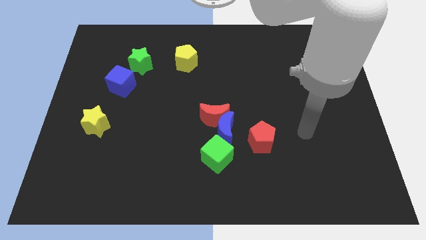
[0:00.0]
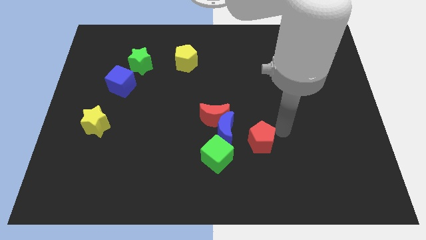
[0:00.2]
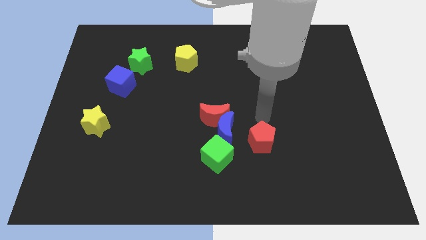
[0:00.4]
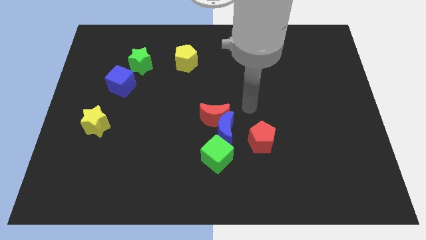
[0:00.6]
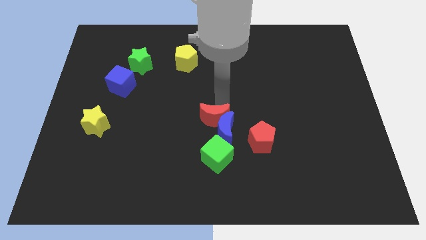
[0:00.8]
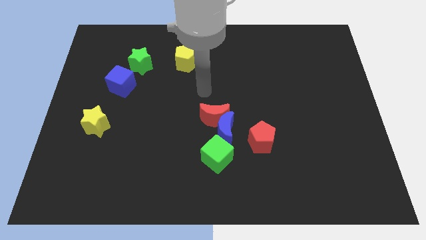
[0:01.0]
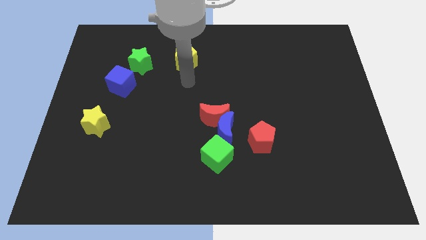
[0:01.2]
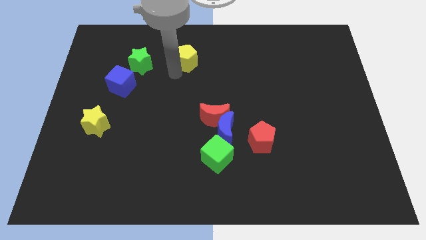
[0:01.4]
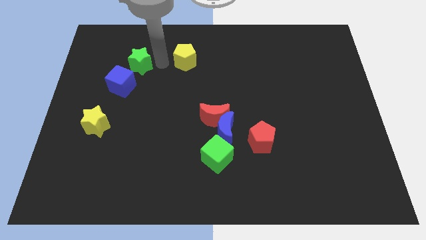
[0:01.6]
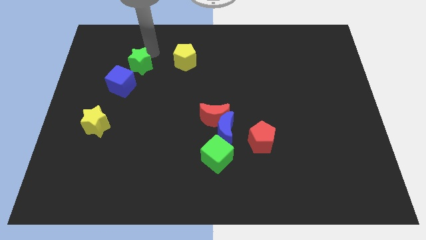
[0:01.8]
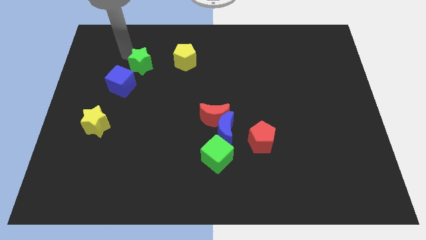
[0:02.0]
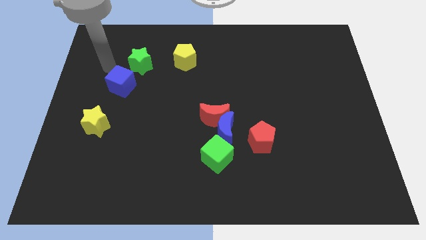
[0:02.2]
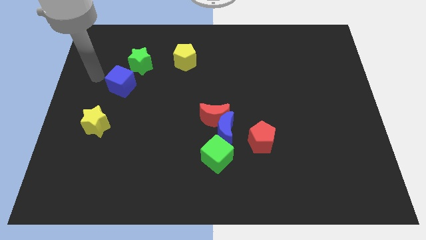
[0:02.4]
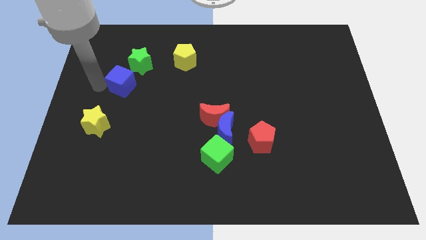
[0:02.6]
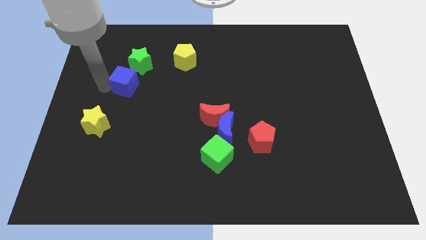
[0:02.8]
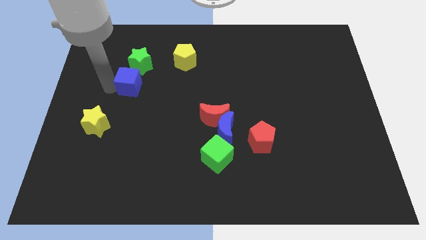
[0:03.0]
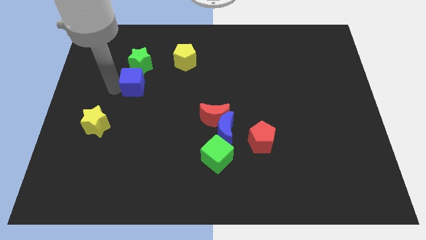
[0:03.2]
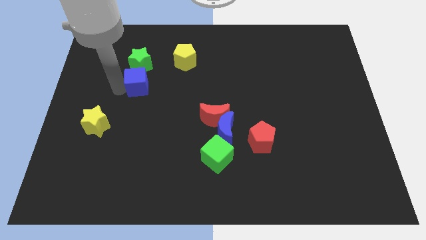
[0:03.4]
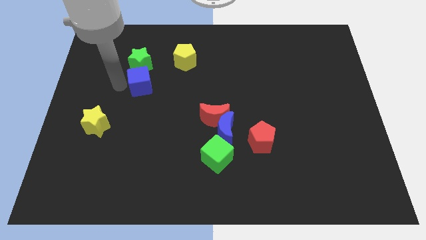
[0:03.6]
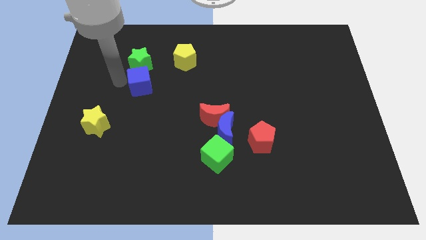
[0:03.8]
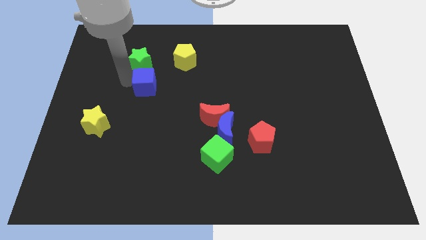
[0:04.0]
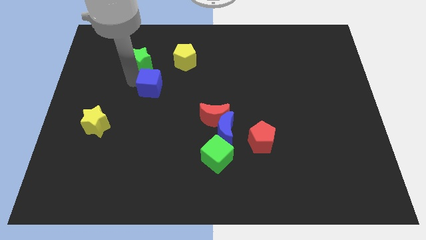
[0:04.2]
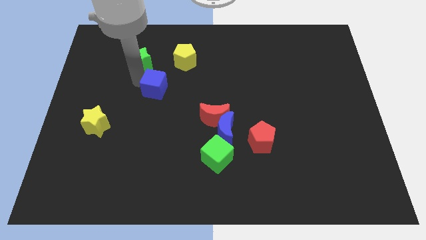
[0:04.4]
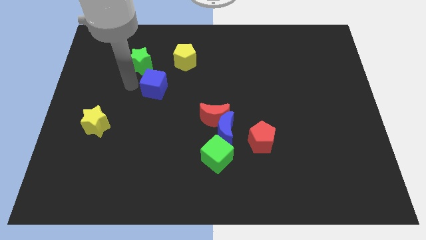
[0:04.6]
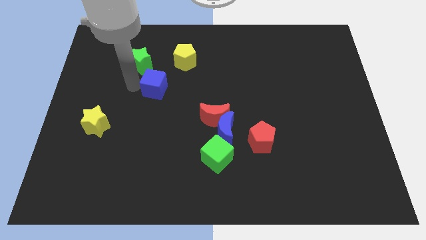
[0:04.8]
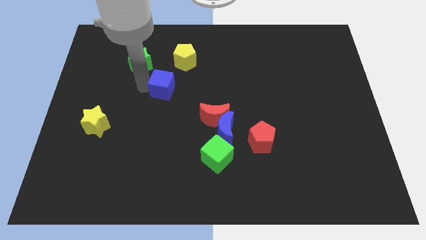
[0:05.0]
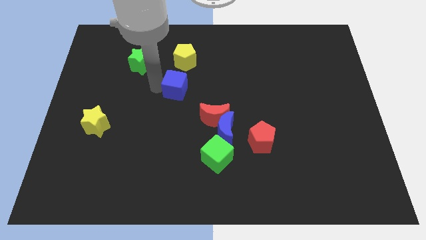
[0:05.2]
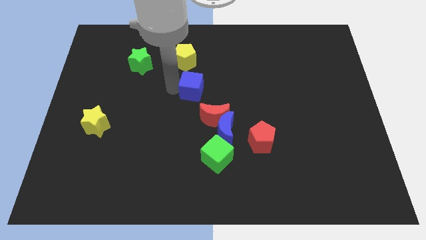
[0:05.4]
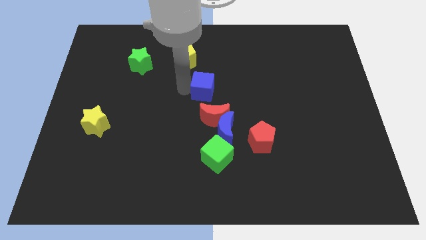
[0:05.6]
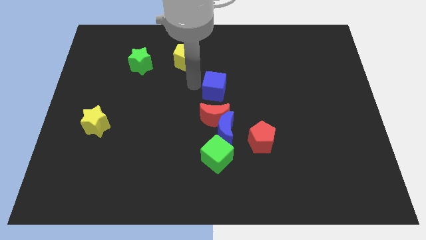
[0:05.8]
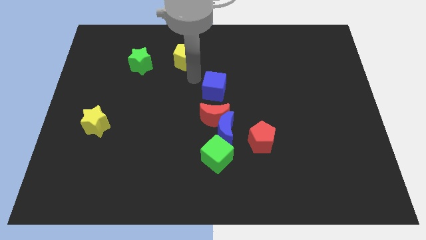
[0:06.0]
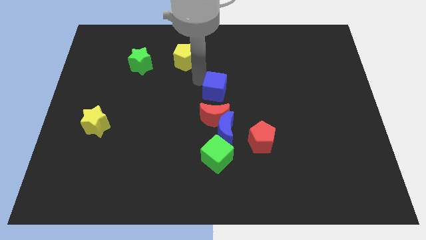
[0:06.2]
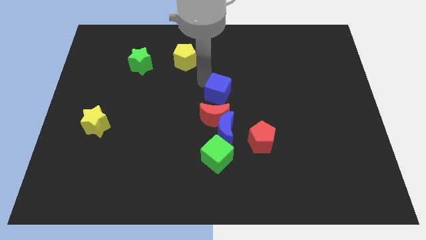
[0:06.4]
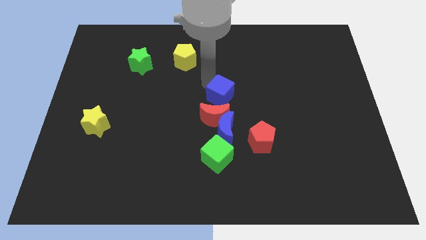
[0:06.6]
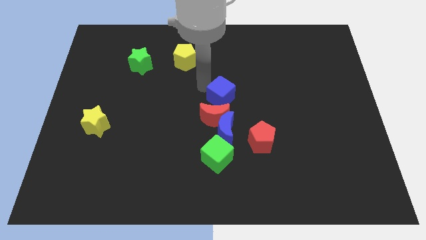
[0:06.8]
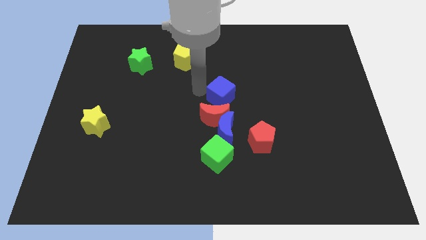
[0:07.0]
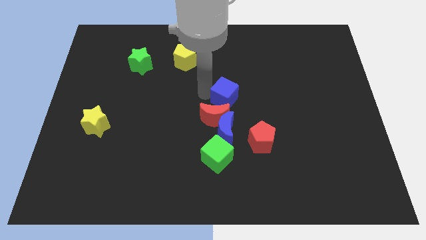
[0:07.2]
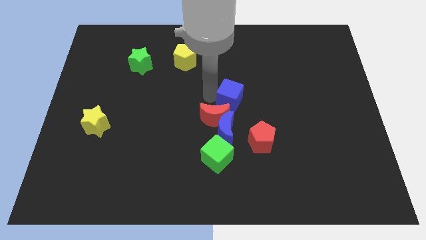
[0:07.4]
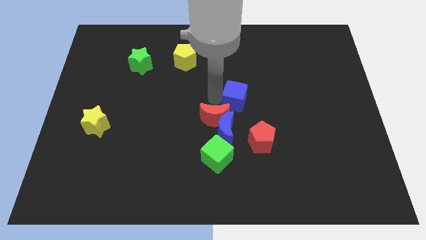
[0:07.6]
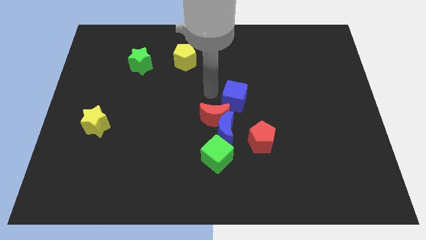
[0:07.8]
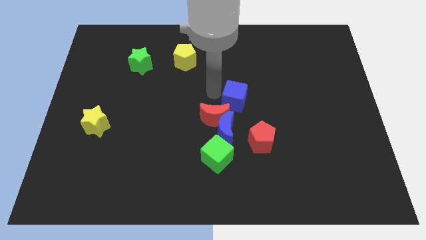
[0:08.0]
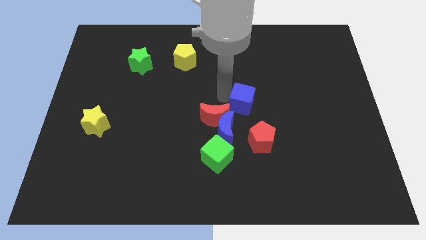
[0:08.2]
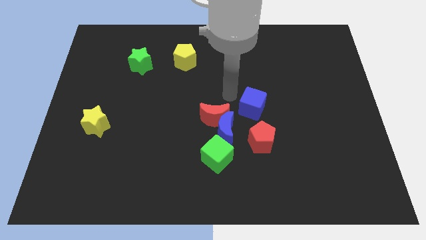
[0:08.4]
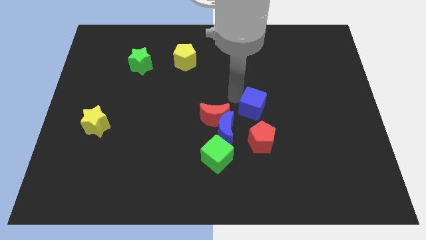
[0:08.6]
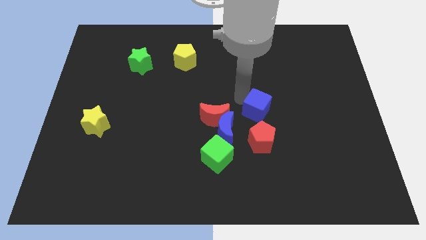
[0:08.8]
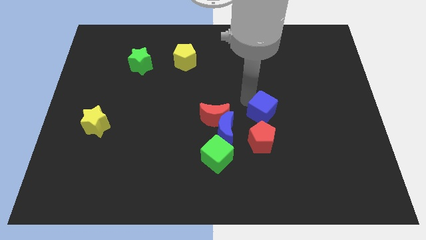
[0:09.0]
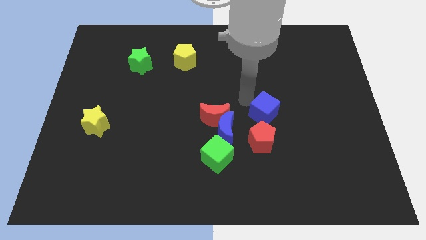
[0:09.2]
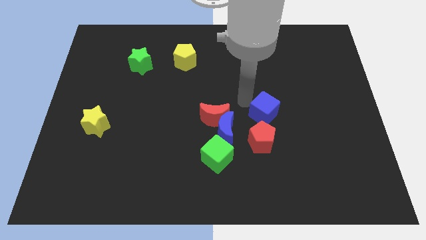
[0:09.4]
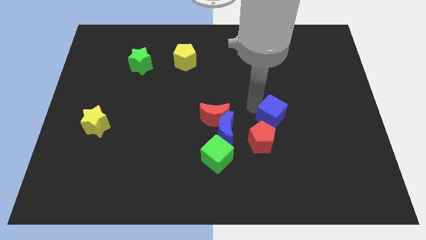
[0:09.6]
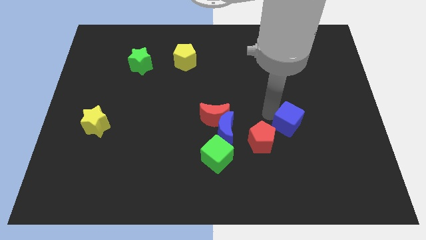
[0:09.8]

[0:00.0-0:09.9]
slide the blue cube right of the red pentagon

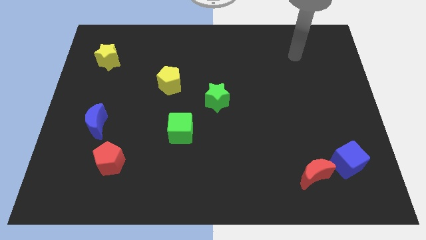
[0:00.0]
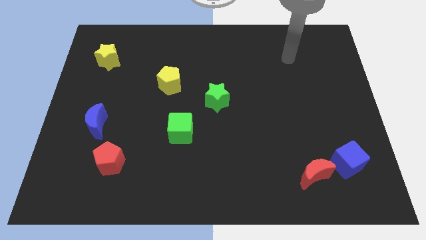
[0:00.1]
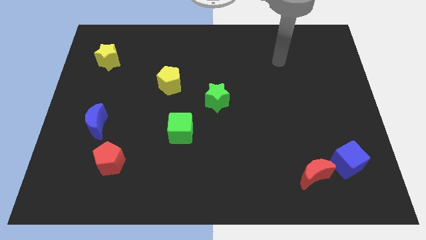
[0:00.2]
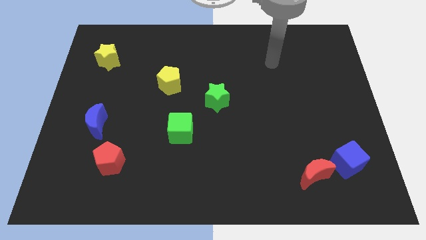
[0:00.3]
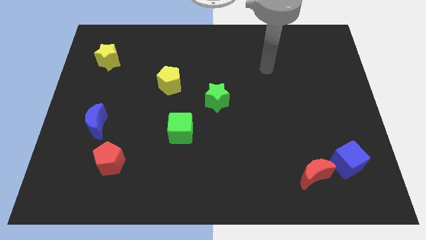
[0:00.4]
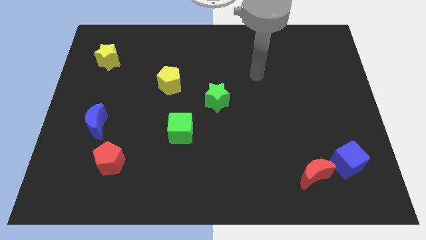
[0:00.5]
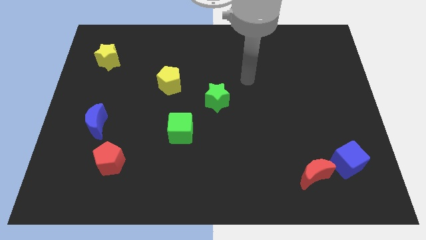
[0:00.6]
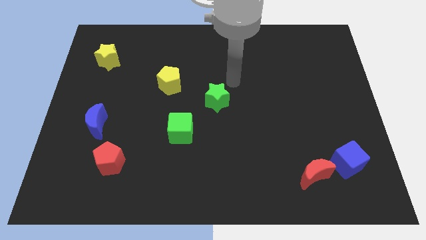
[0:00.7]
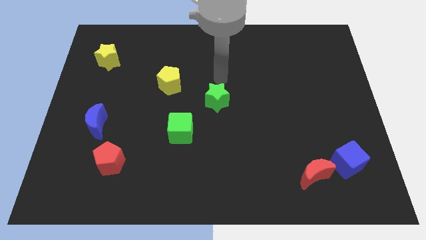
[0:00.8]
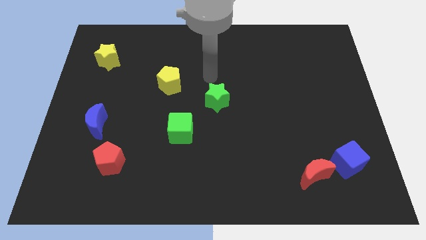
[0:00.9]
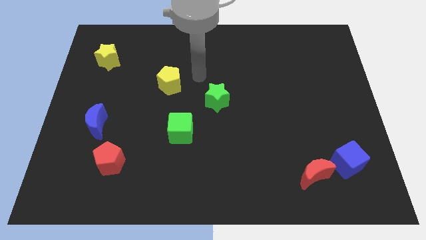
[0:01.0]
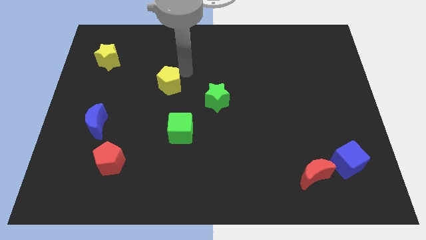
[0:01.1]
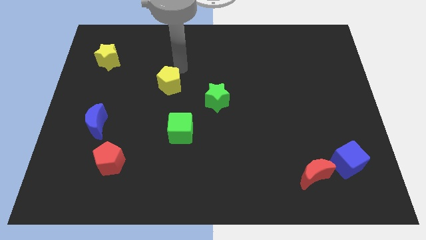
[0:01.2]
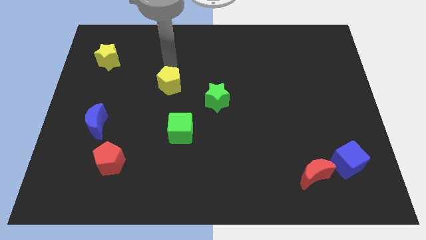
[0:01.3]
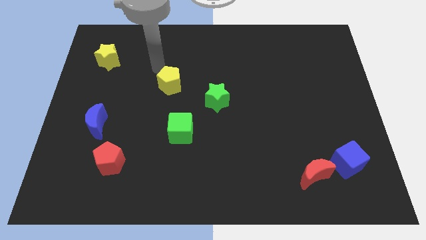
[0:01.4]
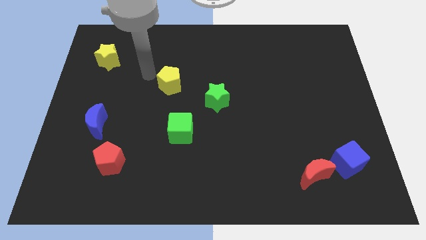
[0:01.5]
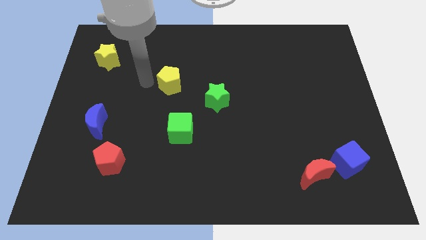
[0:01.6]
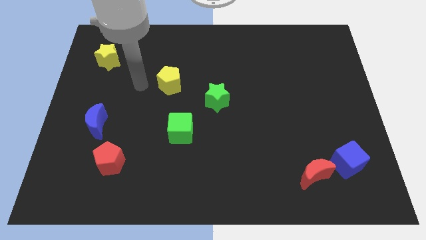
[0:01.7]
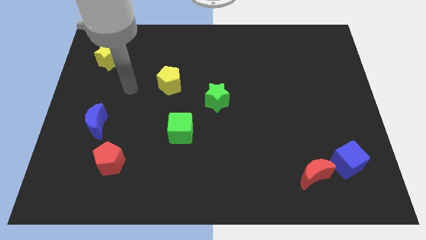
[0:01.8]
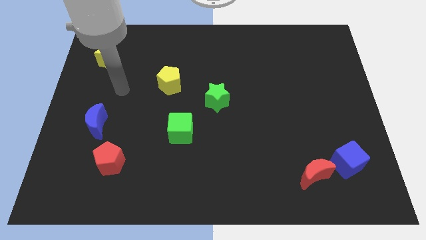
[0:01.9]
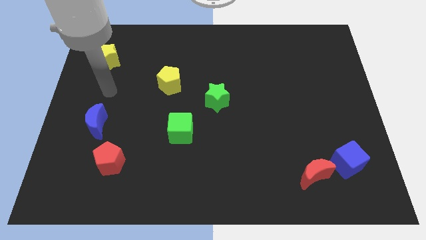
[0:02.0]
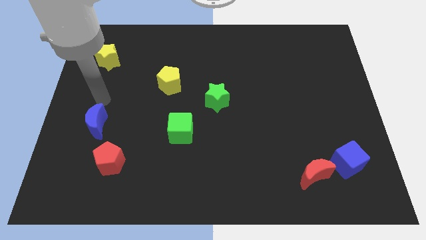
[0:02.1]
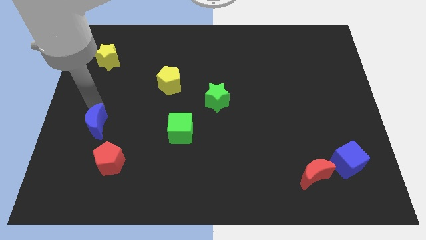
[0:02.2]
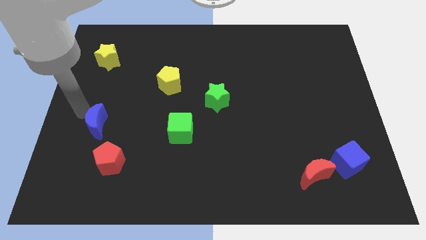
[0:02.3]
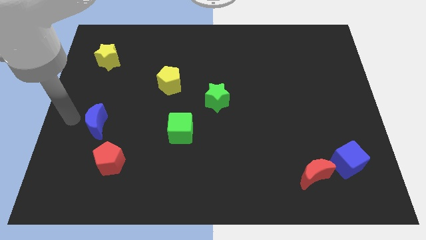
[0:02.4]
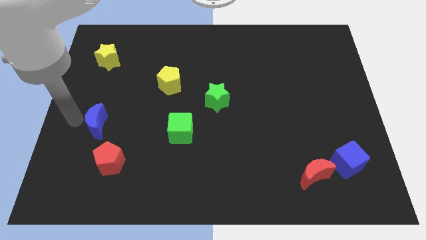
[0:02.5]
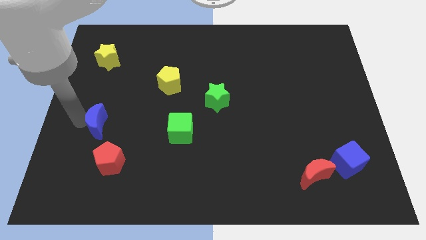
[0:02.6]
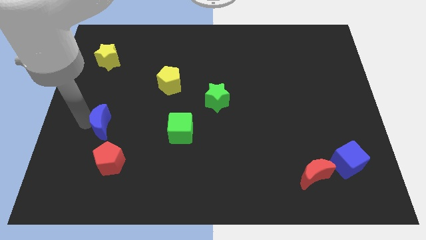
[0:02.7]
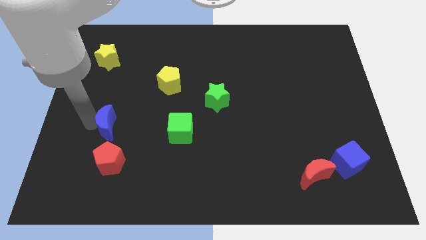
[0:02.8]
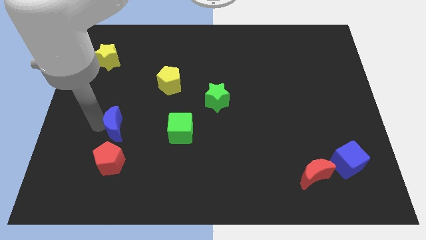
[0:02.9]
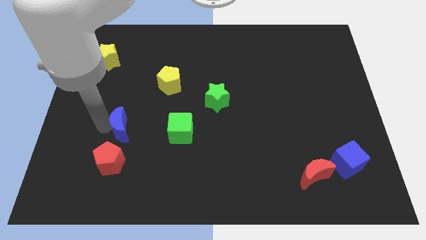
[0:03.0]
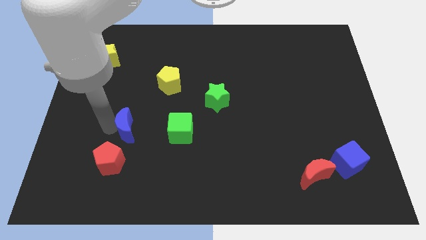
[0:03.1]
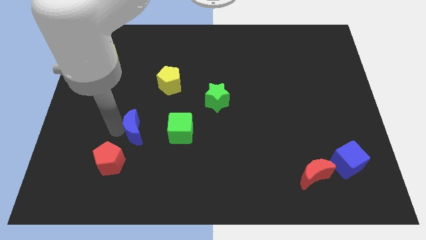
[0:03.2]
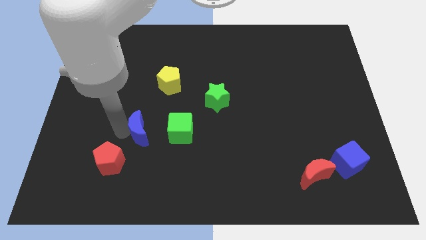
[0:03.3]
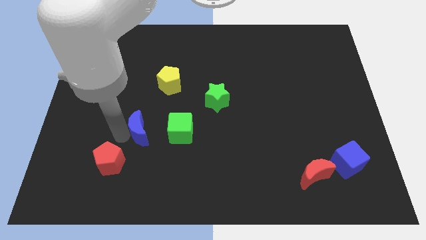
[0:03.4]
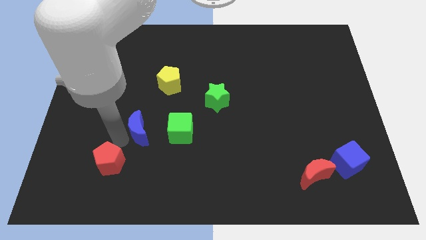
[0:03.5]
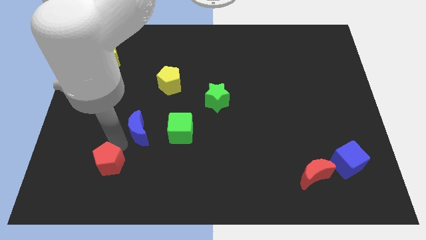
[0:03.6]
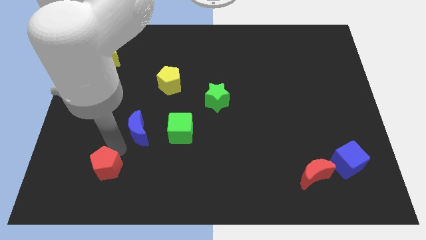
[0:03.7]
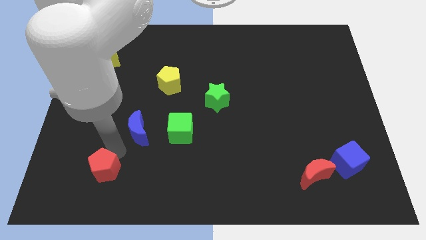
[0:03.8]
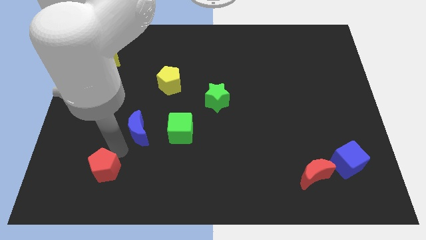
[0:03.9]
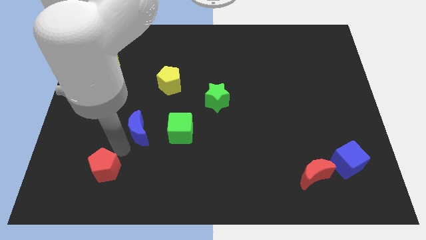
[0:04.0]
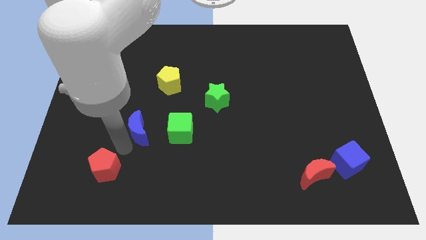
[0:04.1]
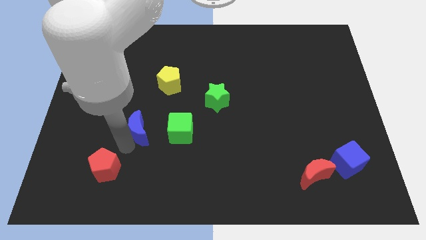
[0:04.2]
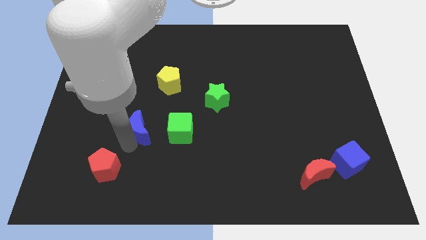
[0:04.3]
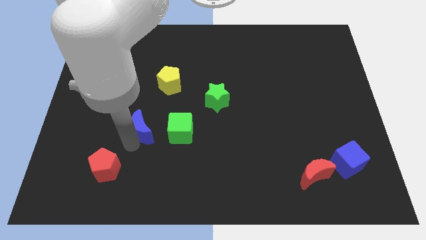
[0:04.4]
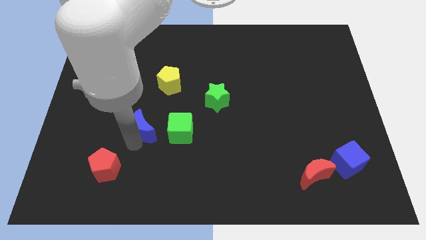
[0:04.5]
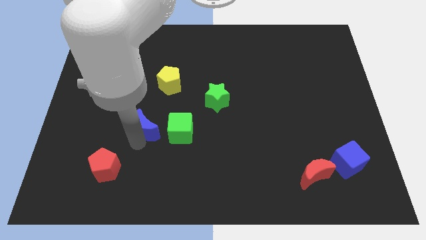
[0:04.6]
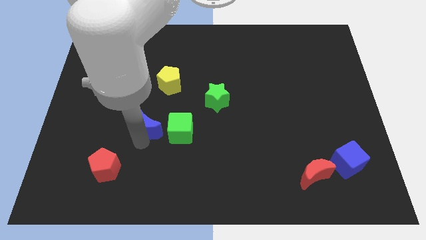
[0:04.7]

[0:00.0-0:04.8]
push the blue moon below the yellow pentagon
